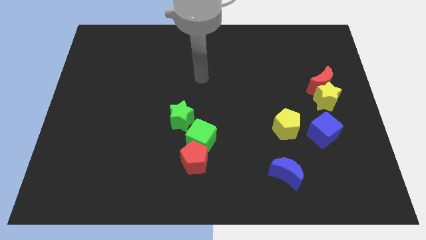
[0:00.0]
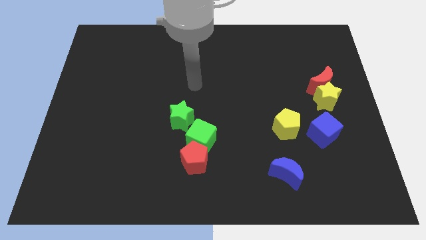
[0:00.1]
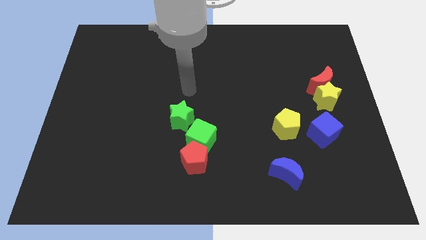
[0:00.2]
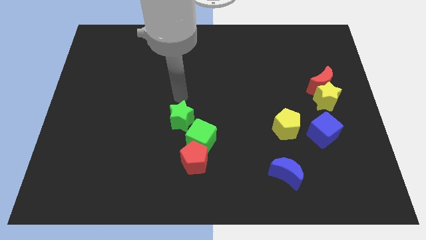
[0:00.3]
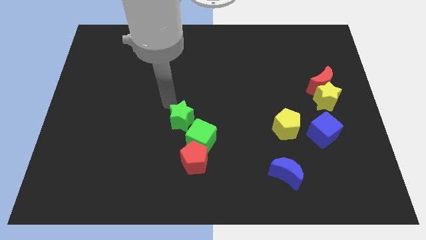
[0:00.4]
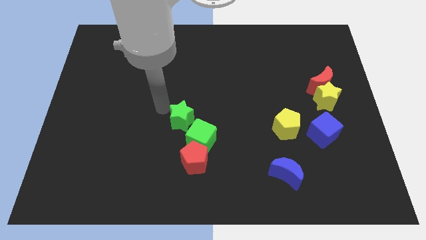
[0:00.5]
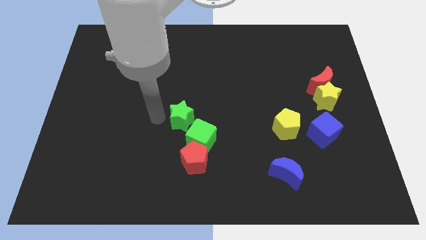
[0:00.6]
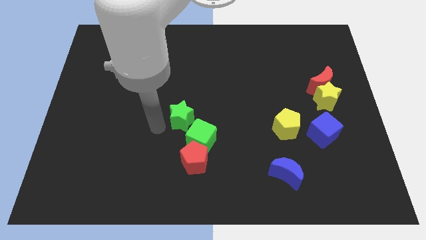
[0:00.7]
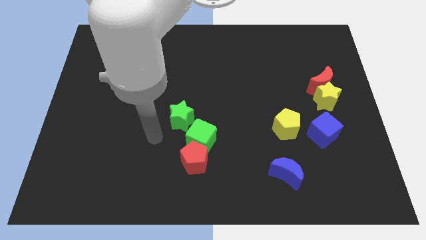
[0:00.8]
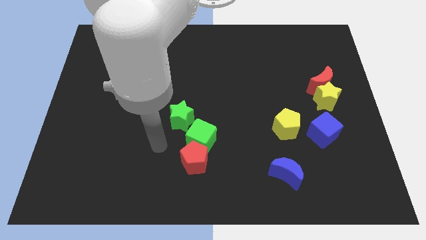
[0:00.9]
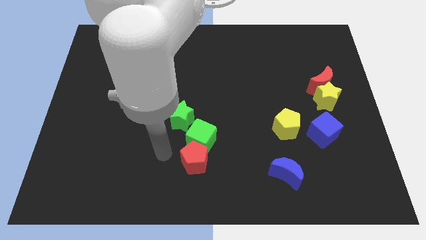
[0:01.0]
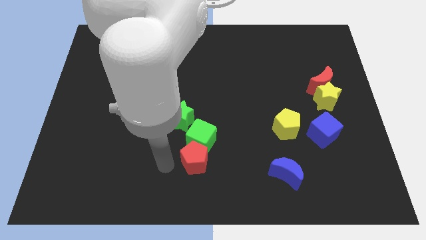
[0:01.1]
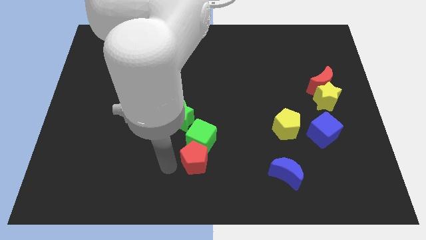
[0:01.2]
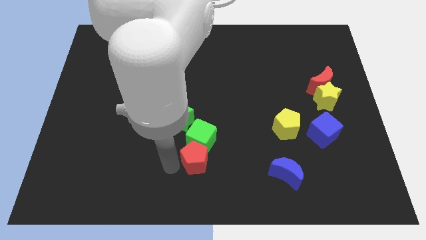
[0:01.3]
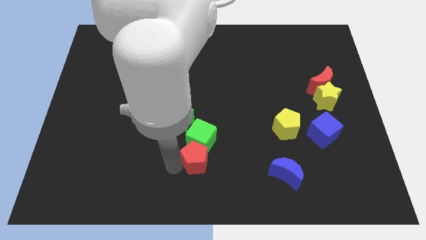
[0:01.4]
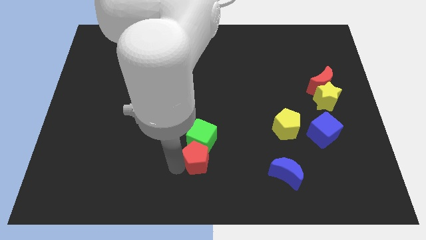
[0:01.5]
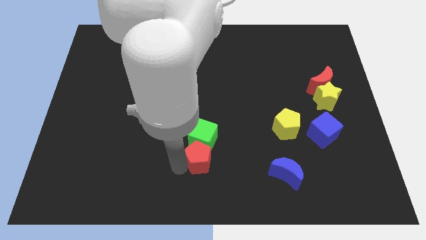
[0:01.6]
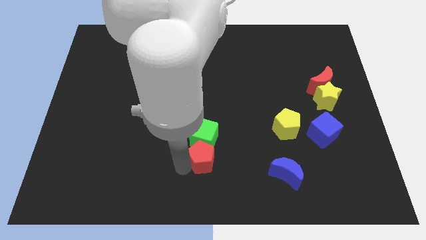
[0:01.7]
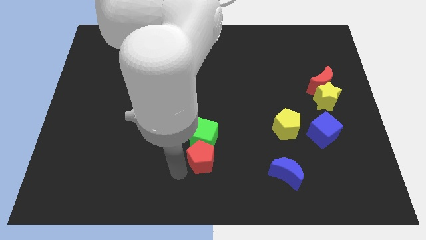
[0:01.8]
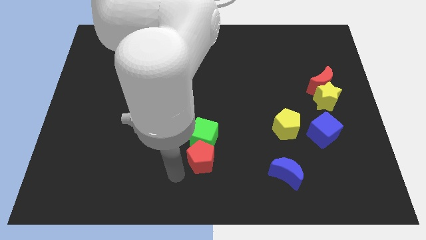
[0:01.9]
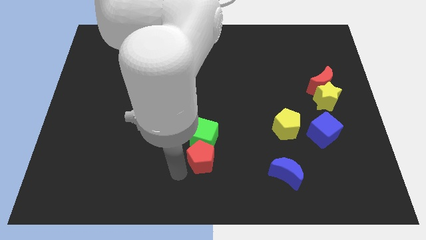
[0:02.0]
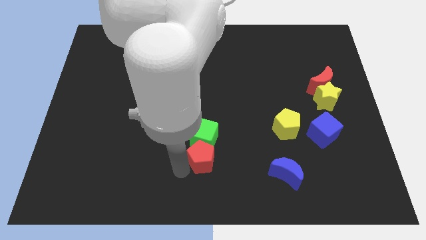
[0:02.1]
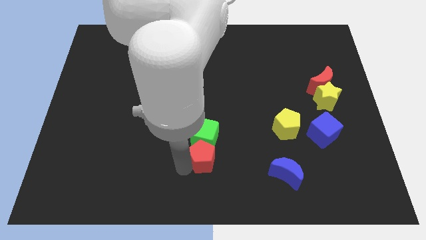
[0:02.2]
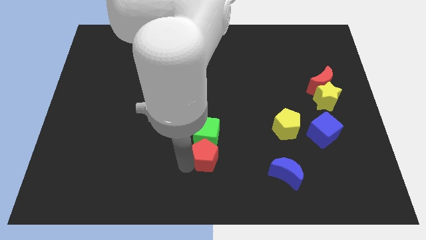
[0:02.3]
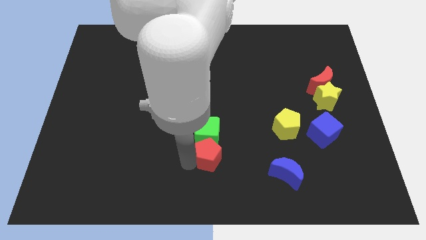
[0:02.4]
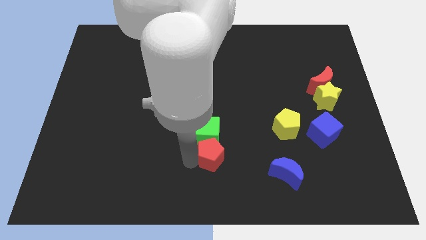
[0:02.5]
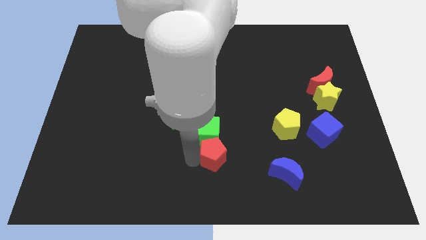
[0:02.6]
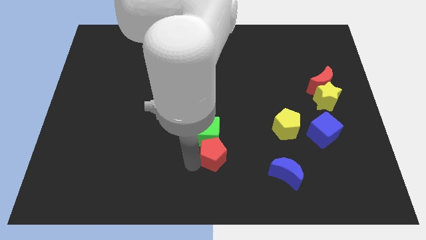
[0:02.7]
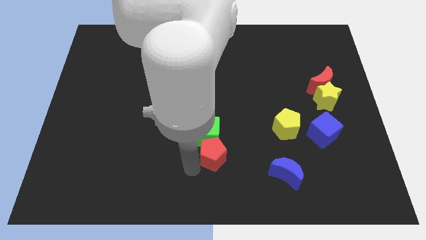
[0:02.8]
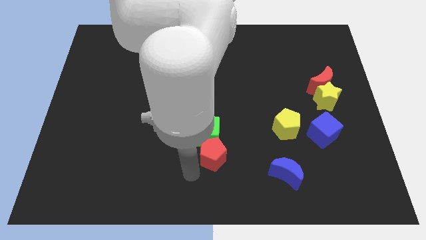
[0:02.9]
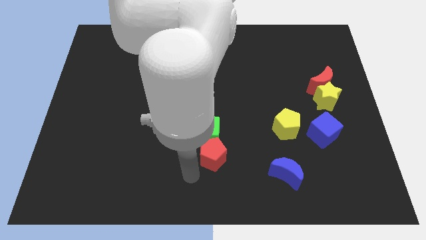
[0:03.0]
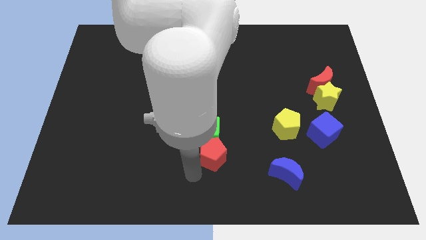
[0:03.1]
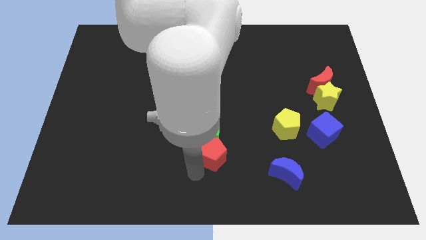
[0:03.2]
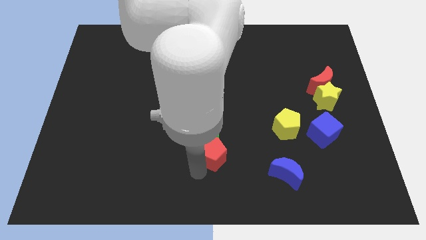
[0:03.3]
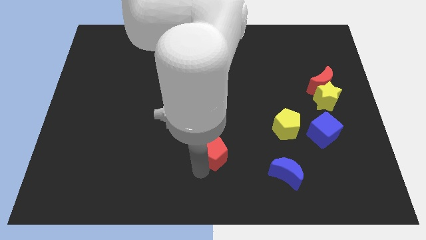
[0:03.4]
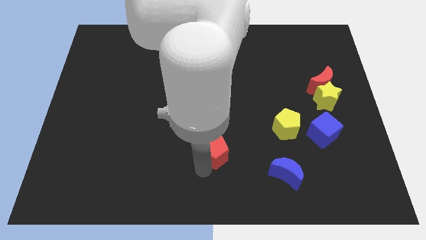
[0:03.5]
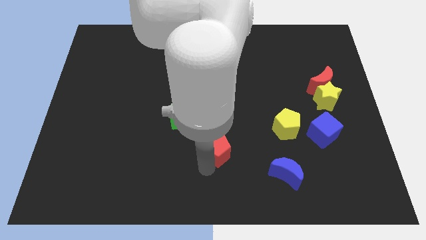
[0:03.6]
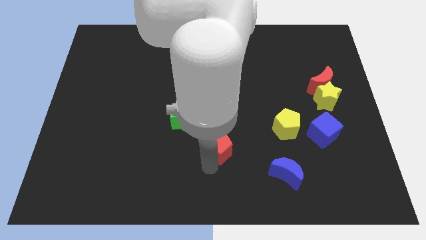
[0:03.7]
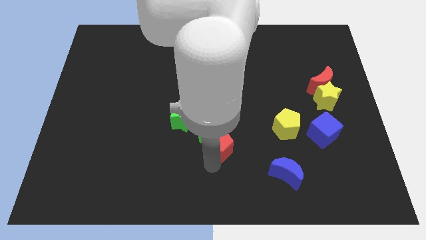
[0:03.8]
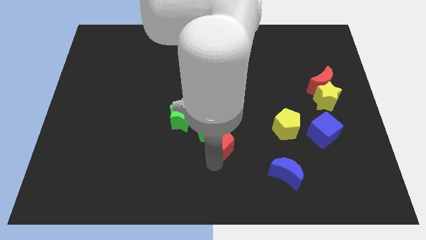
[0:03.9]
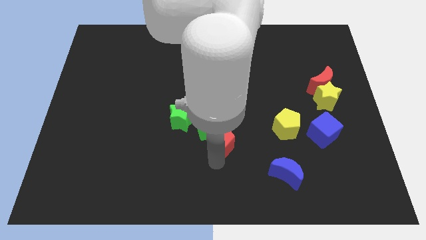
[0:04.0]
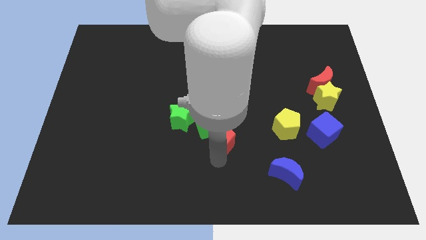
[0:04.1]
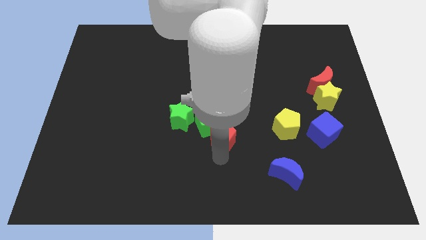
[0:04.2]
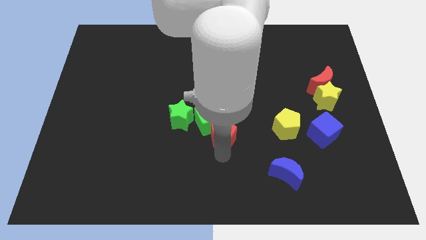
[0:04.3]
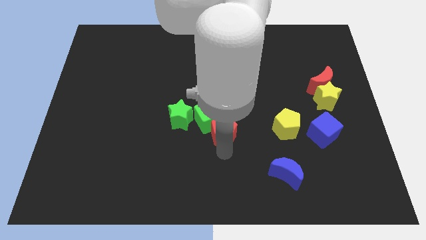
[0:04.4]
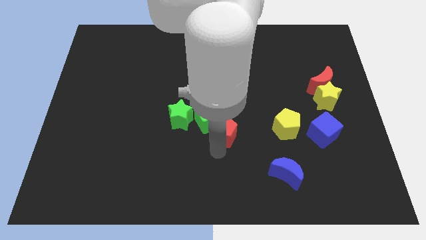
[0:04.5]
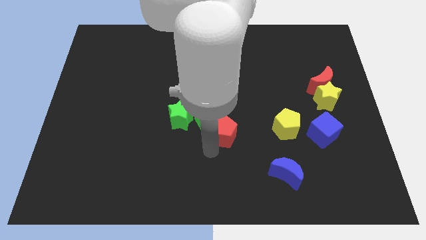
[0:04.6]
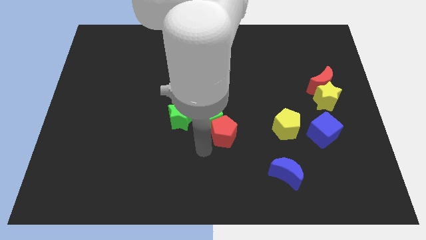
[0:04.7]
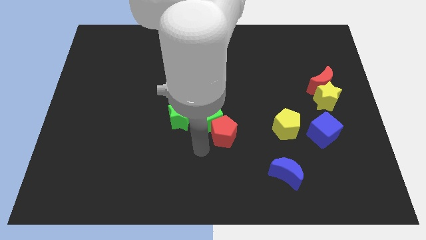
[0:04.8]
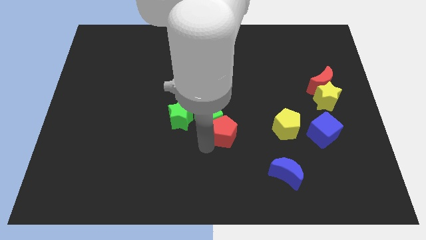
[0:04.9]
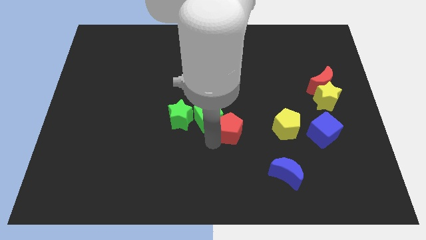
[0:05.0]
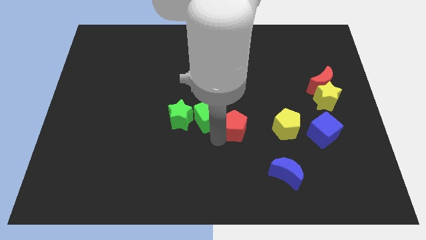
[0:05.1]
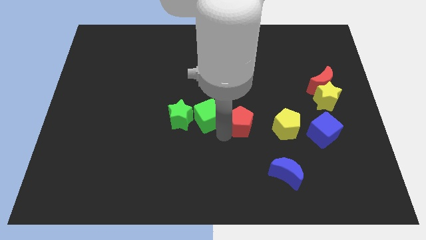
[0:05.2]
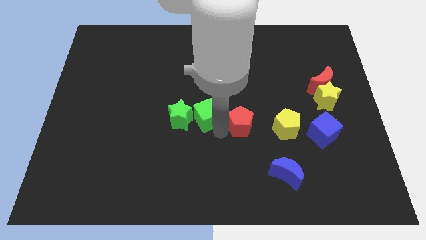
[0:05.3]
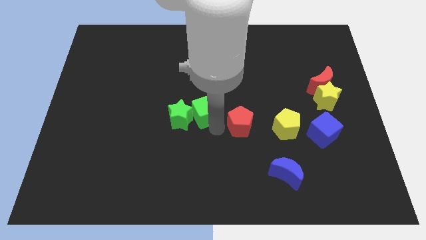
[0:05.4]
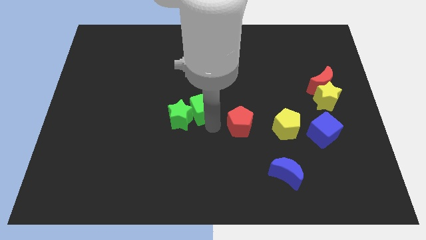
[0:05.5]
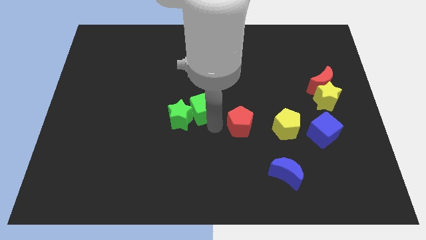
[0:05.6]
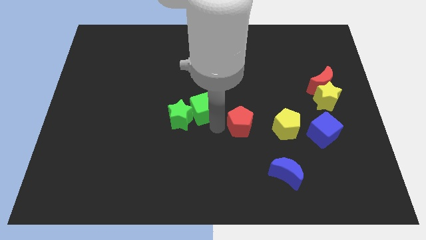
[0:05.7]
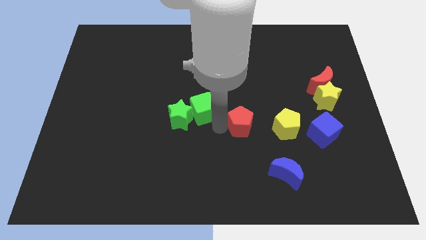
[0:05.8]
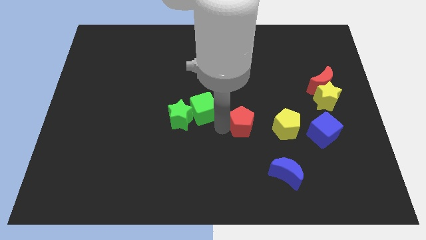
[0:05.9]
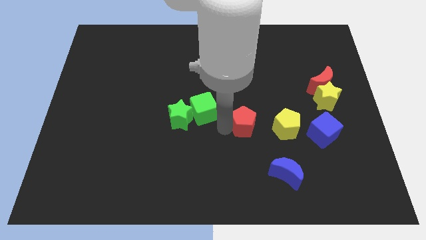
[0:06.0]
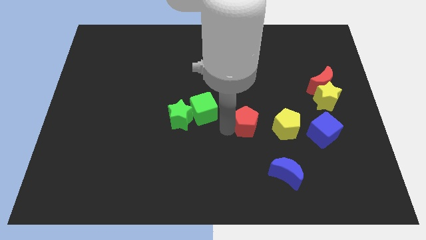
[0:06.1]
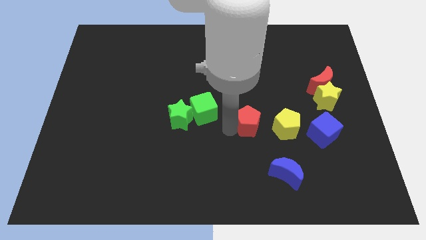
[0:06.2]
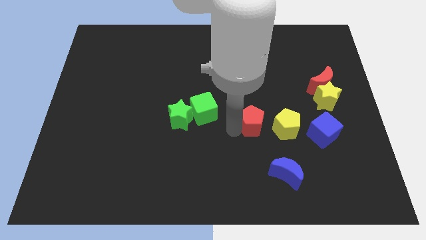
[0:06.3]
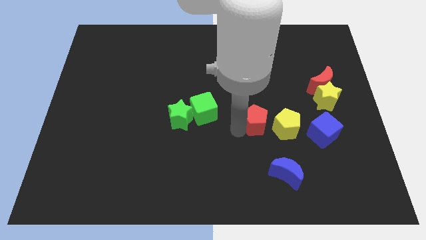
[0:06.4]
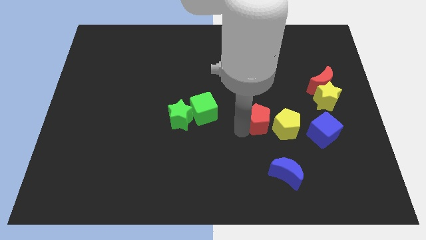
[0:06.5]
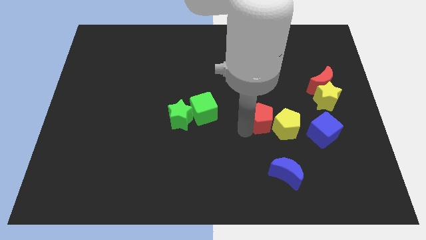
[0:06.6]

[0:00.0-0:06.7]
move the red pentagon next to the yellow pentagon
